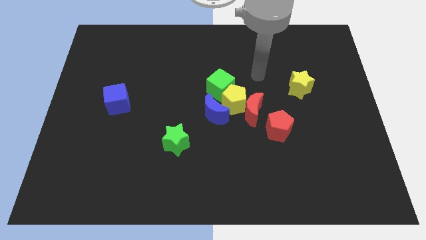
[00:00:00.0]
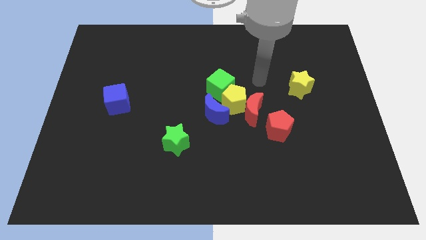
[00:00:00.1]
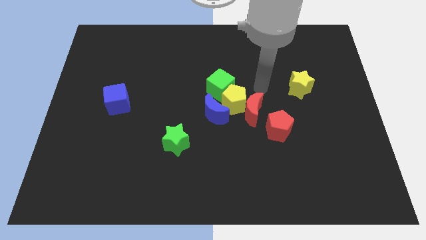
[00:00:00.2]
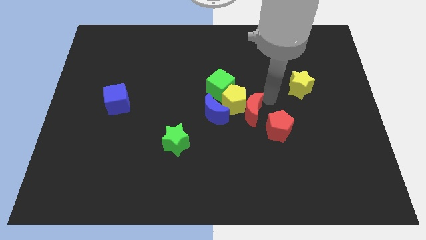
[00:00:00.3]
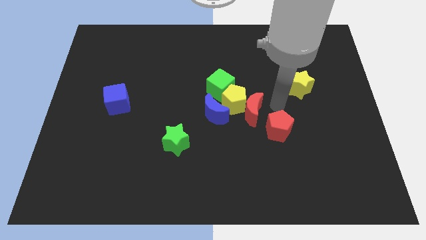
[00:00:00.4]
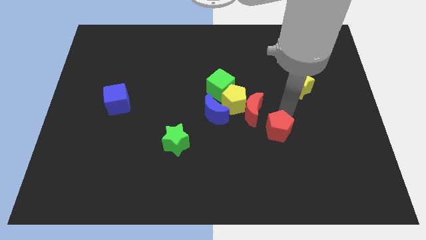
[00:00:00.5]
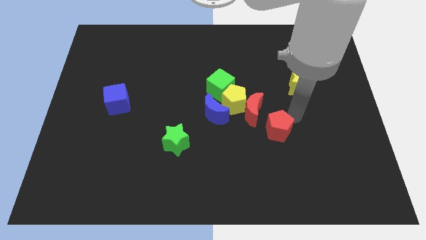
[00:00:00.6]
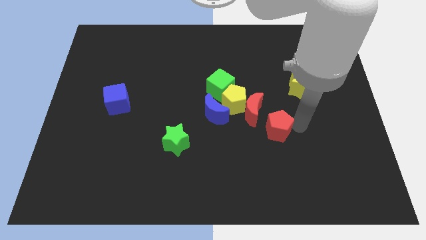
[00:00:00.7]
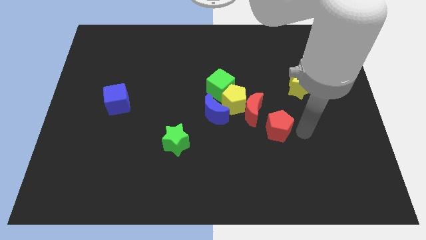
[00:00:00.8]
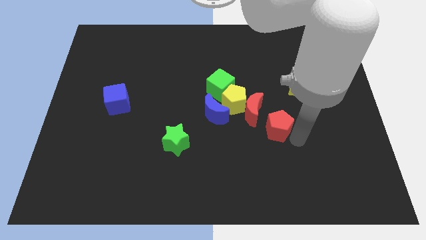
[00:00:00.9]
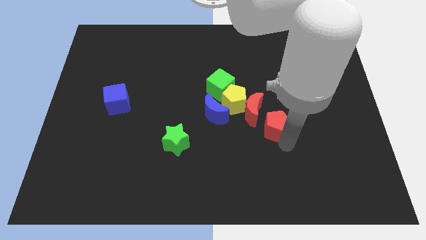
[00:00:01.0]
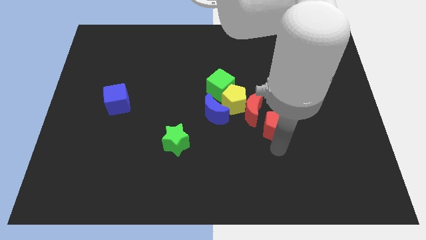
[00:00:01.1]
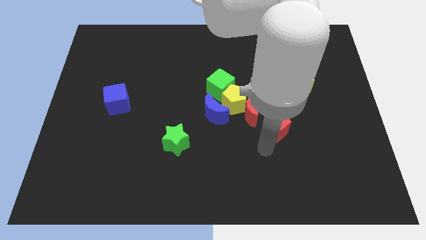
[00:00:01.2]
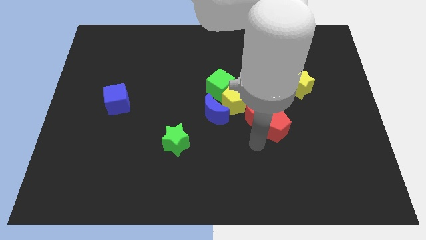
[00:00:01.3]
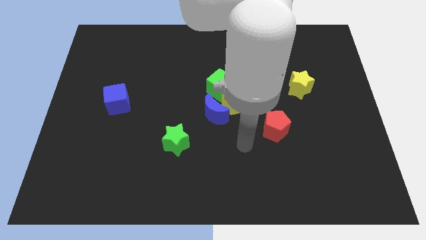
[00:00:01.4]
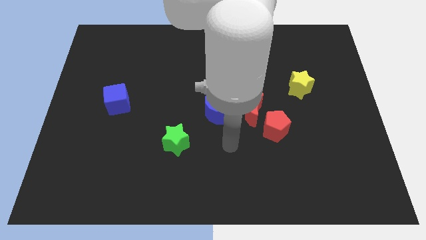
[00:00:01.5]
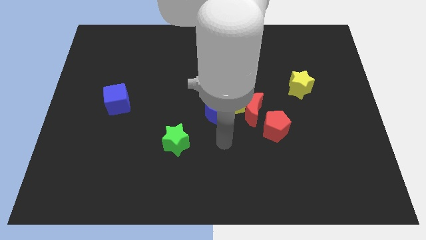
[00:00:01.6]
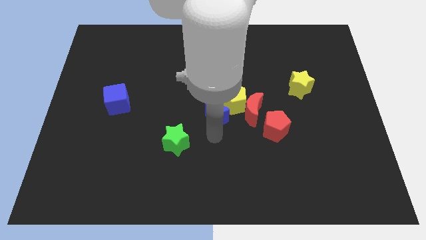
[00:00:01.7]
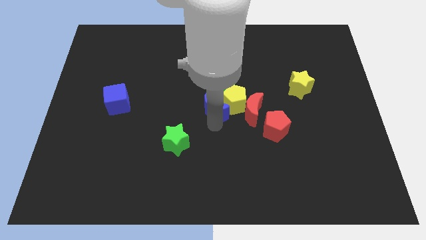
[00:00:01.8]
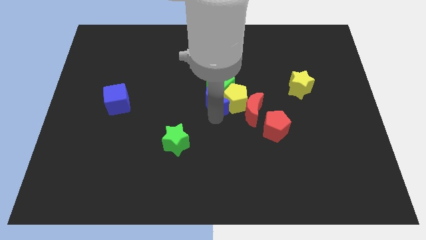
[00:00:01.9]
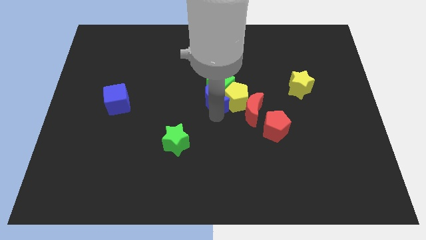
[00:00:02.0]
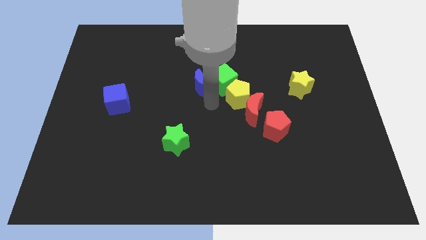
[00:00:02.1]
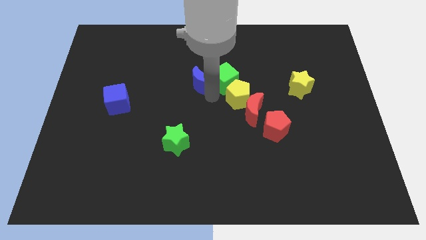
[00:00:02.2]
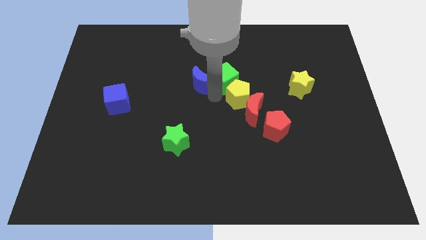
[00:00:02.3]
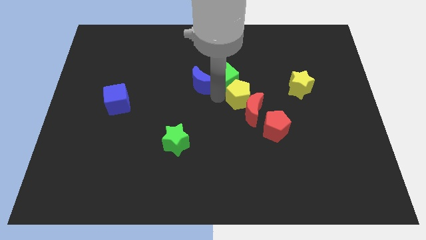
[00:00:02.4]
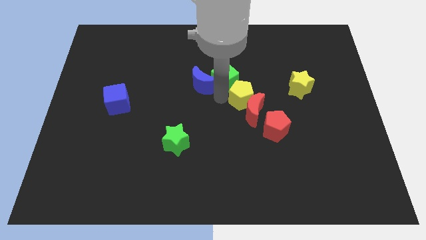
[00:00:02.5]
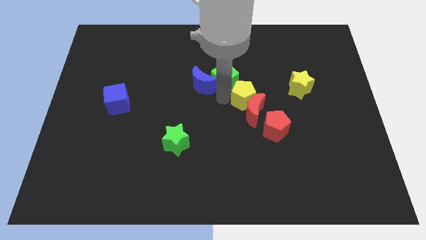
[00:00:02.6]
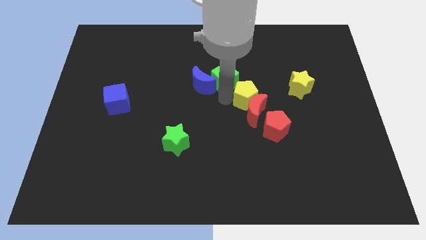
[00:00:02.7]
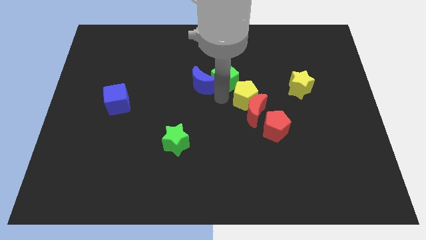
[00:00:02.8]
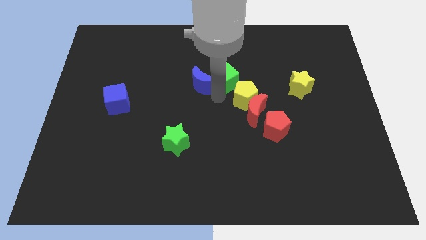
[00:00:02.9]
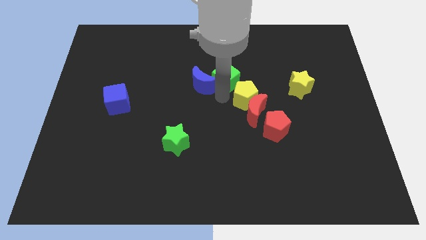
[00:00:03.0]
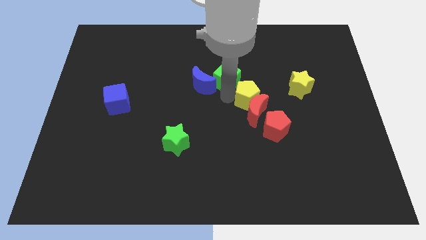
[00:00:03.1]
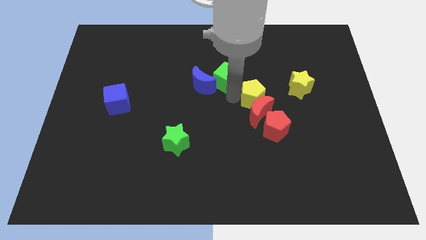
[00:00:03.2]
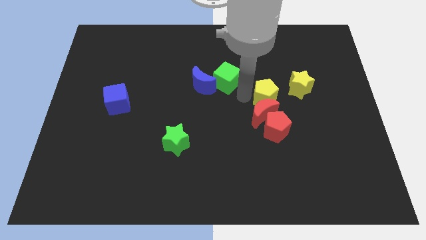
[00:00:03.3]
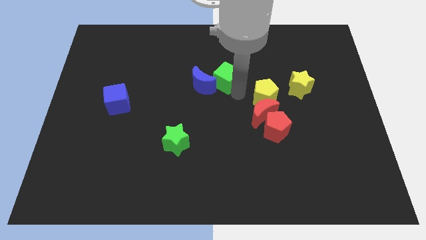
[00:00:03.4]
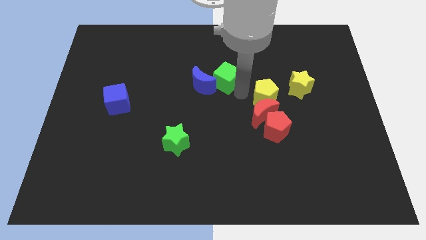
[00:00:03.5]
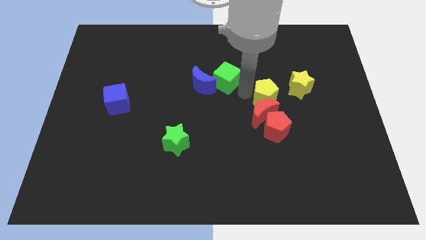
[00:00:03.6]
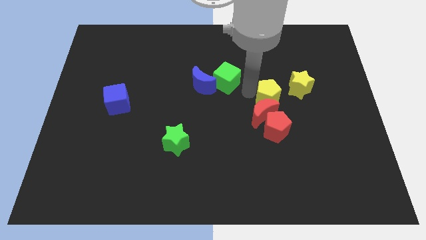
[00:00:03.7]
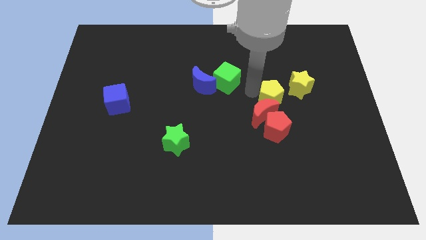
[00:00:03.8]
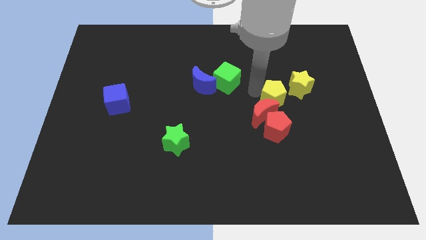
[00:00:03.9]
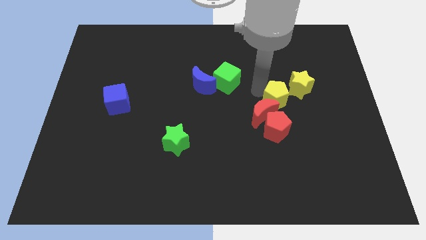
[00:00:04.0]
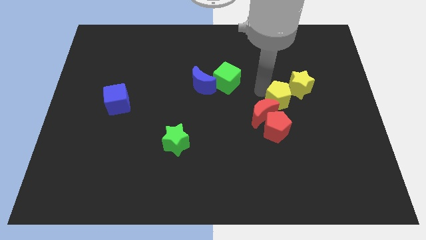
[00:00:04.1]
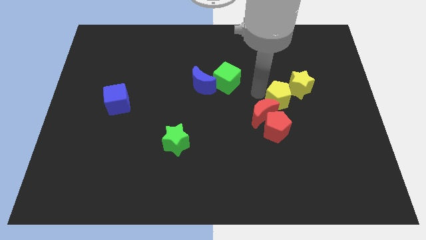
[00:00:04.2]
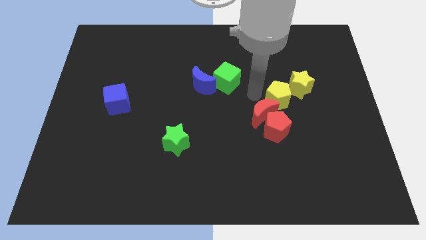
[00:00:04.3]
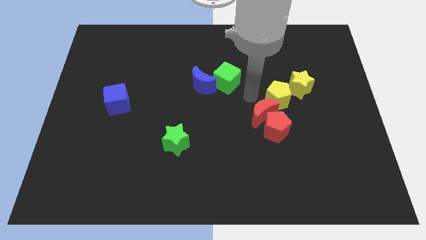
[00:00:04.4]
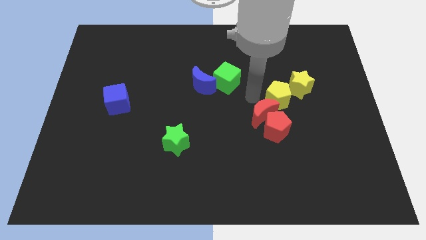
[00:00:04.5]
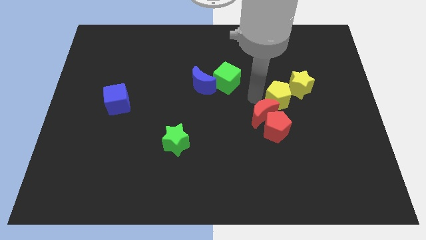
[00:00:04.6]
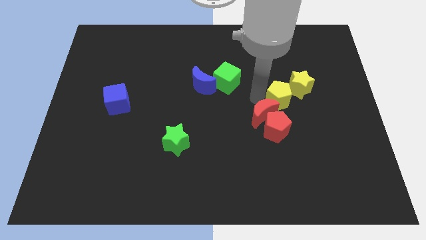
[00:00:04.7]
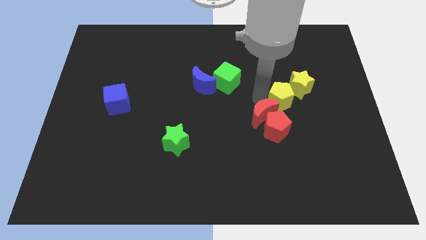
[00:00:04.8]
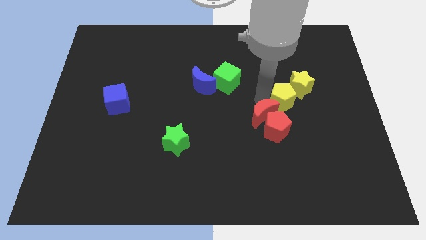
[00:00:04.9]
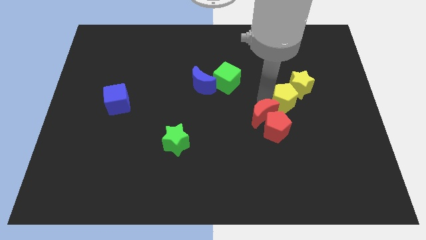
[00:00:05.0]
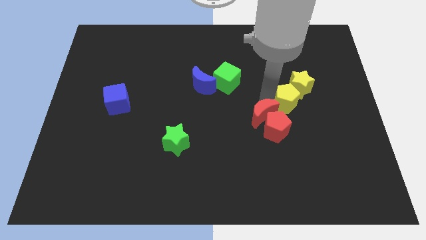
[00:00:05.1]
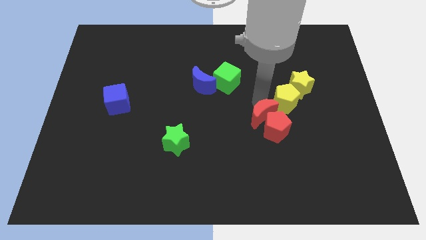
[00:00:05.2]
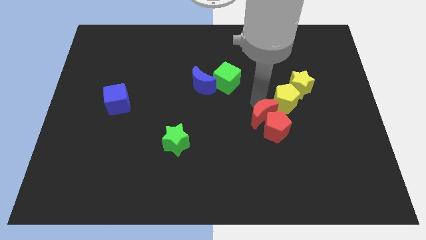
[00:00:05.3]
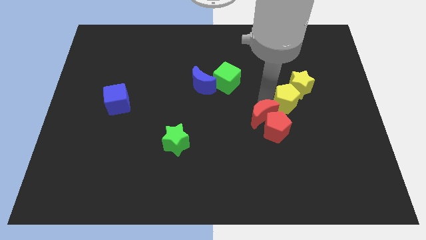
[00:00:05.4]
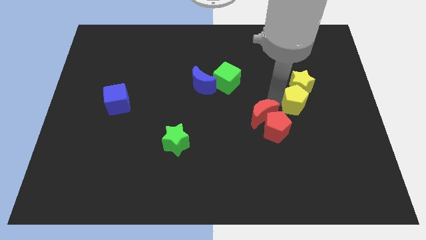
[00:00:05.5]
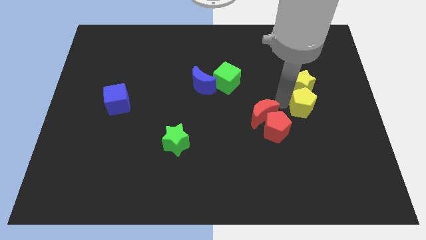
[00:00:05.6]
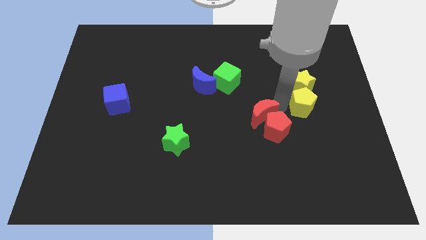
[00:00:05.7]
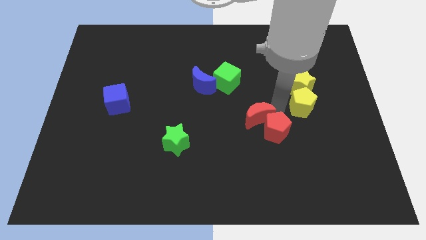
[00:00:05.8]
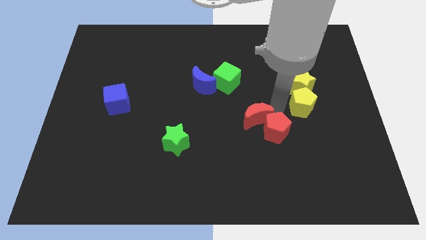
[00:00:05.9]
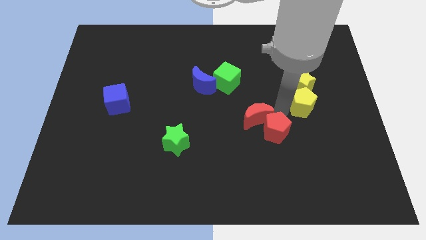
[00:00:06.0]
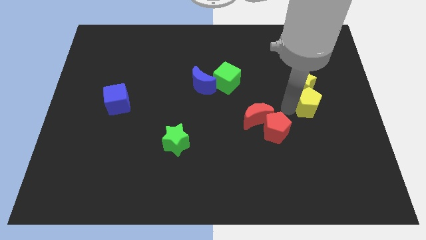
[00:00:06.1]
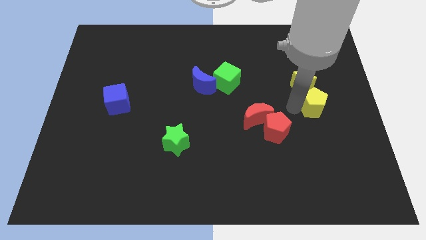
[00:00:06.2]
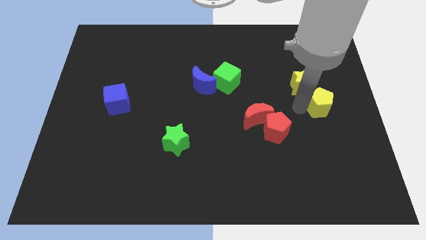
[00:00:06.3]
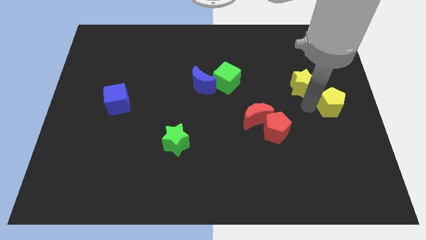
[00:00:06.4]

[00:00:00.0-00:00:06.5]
move the yellow pentagon to the center right
